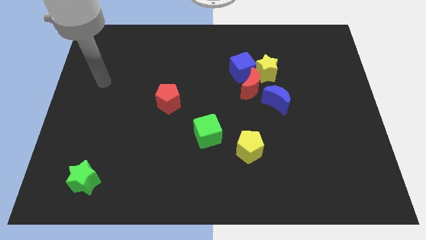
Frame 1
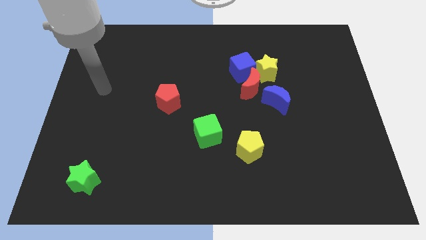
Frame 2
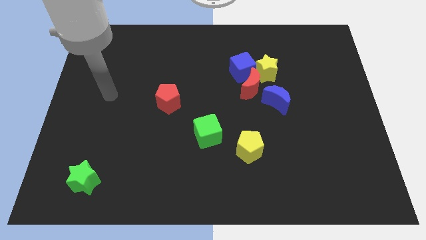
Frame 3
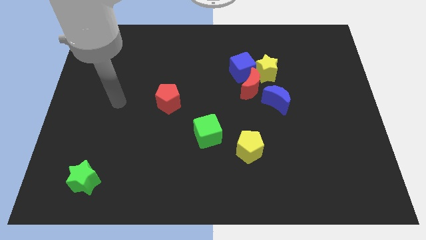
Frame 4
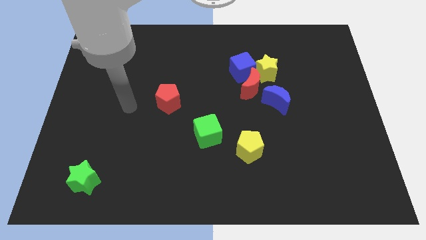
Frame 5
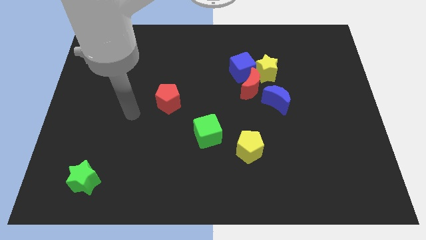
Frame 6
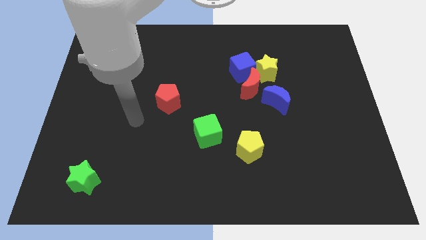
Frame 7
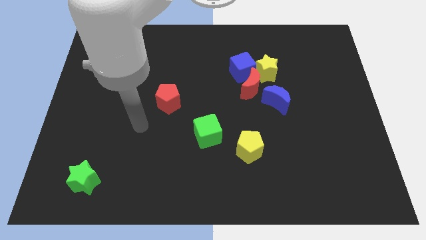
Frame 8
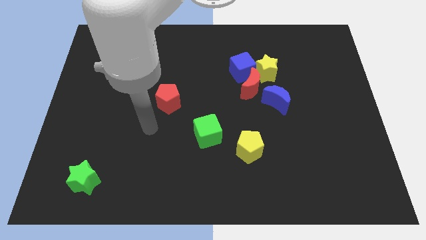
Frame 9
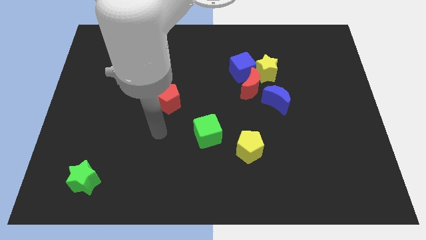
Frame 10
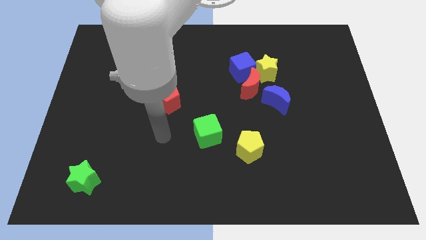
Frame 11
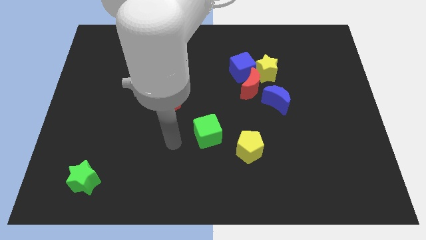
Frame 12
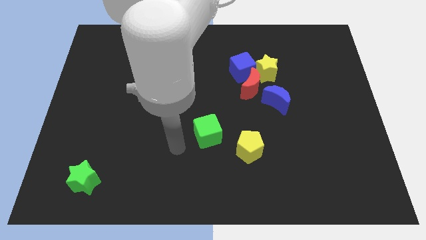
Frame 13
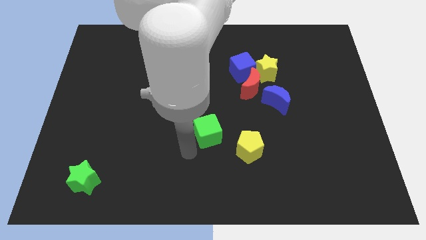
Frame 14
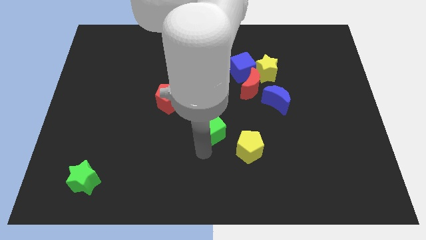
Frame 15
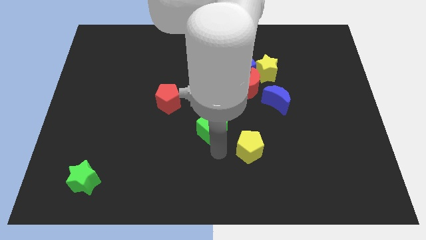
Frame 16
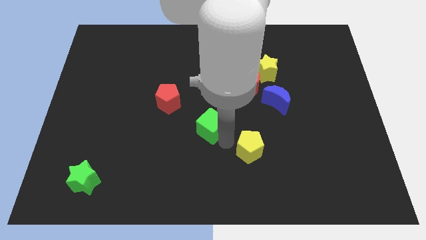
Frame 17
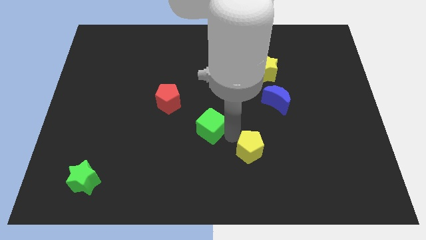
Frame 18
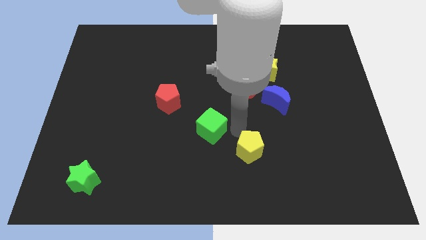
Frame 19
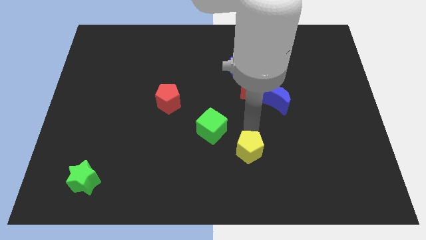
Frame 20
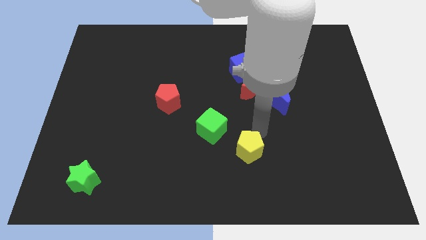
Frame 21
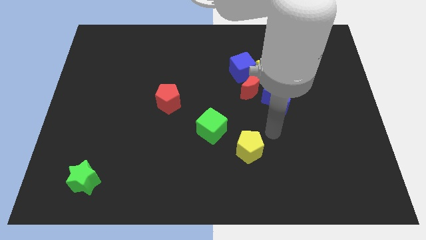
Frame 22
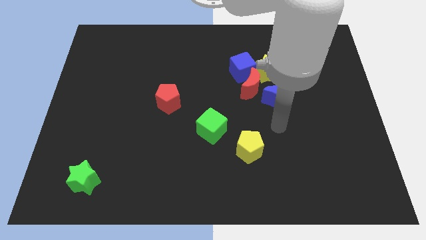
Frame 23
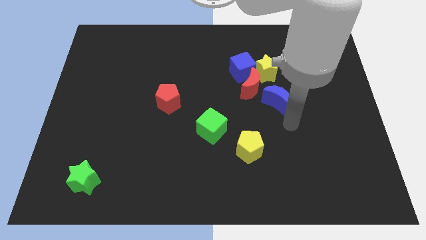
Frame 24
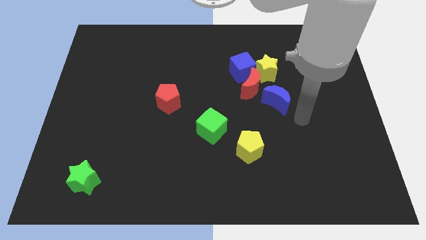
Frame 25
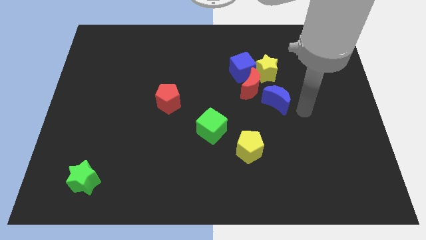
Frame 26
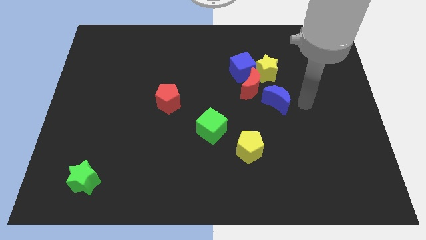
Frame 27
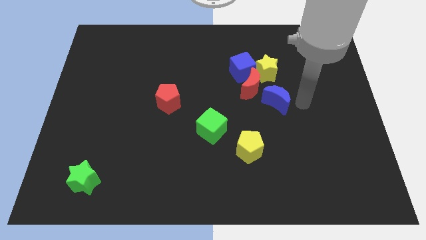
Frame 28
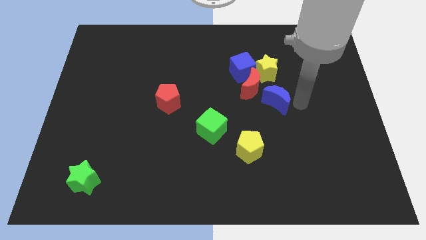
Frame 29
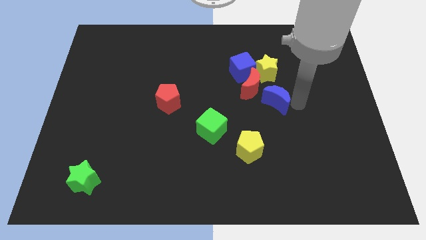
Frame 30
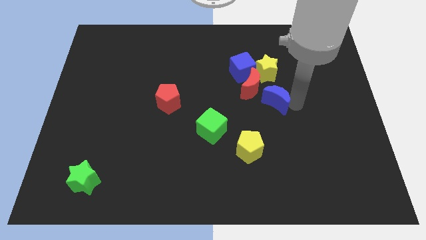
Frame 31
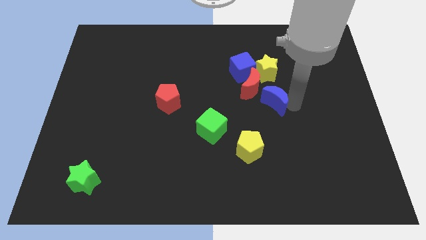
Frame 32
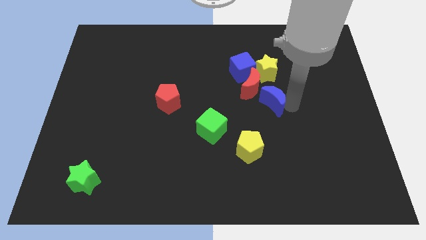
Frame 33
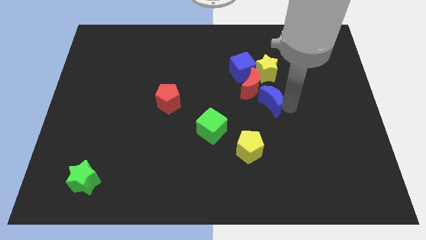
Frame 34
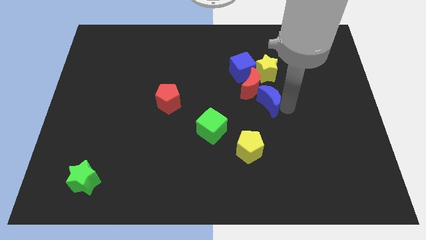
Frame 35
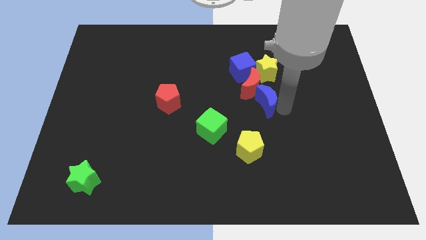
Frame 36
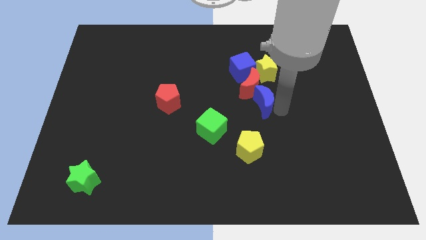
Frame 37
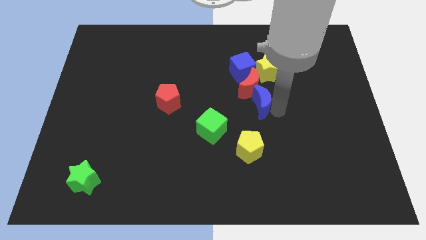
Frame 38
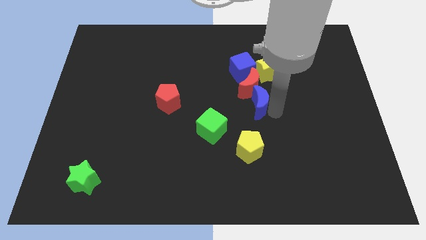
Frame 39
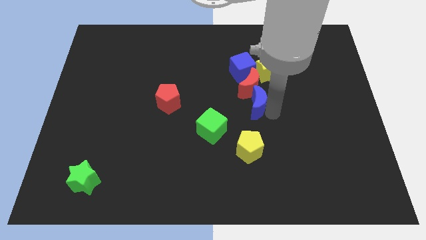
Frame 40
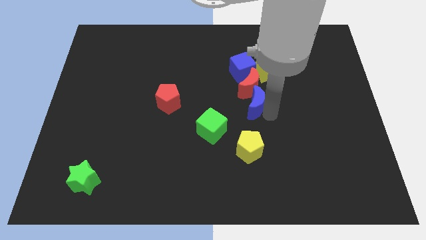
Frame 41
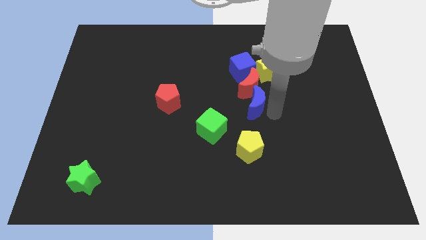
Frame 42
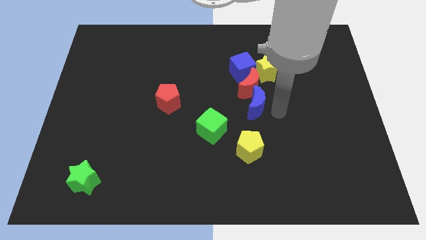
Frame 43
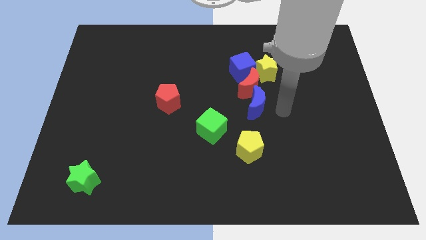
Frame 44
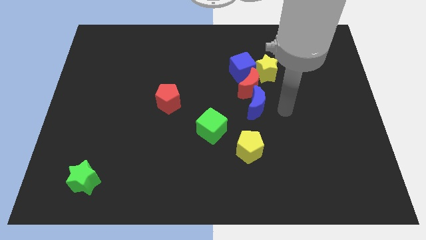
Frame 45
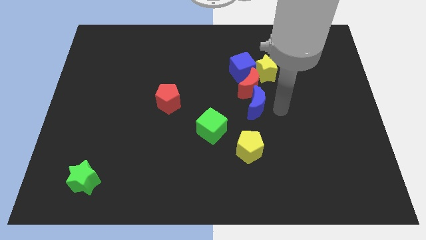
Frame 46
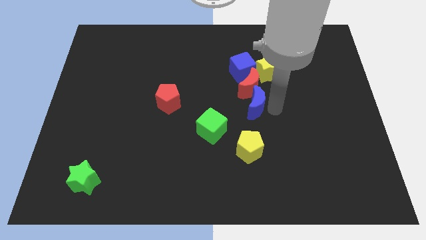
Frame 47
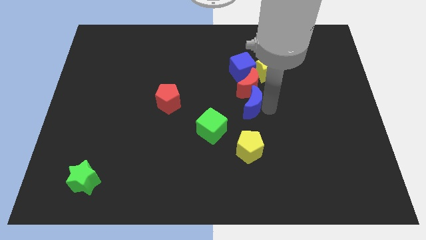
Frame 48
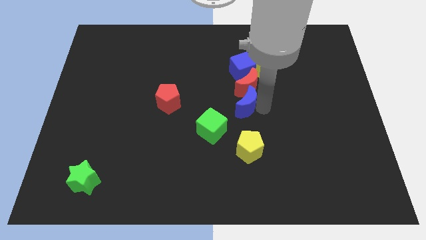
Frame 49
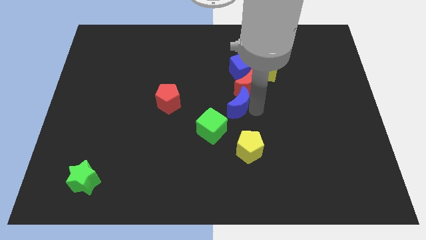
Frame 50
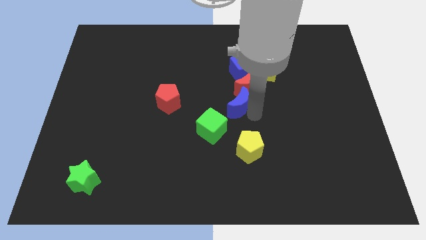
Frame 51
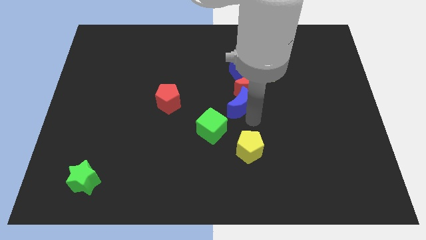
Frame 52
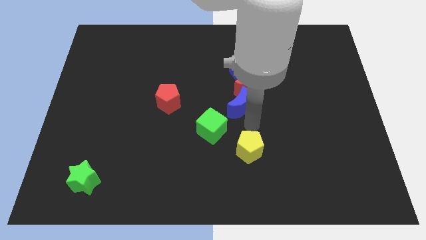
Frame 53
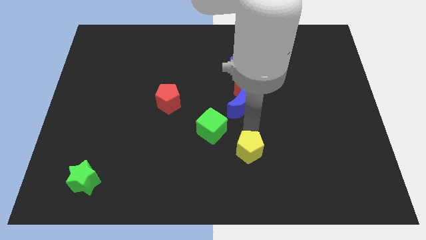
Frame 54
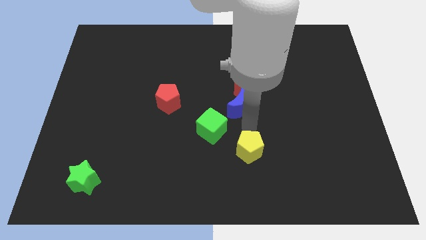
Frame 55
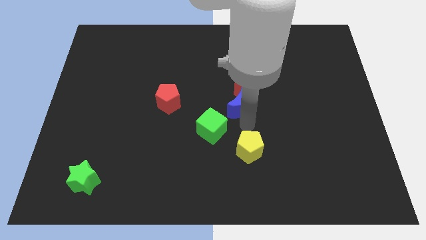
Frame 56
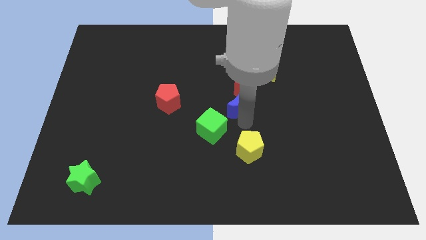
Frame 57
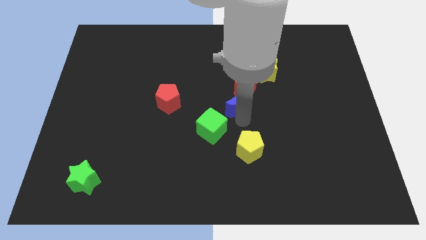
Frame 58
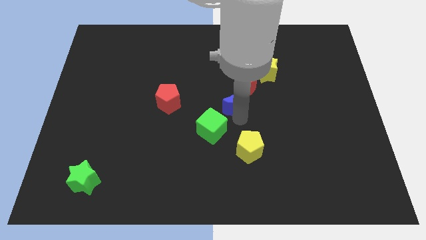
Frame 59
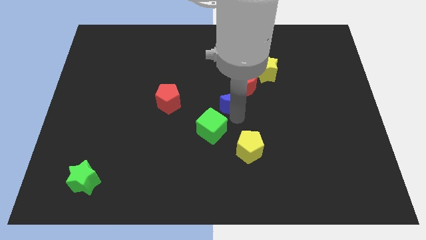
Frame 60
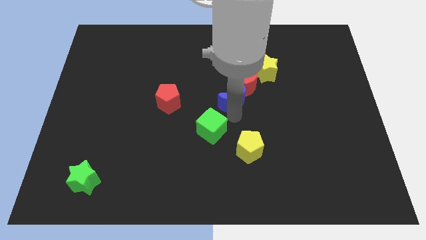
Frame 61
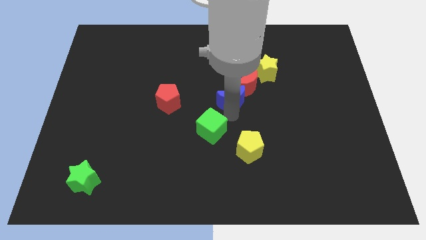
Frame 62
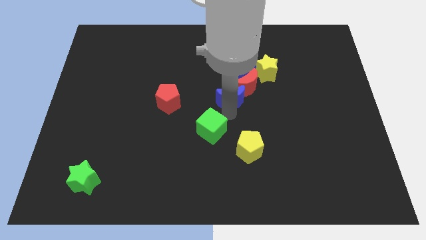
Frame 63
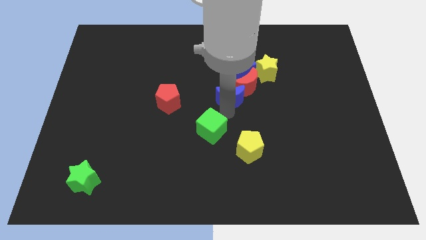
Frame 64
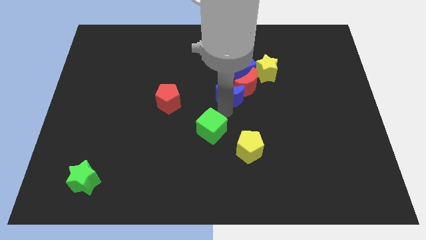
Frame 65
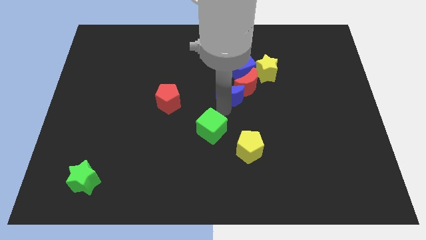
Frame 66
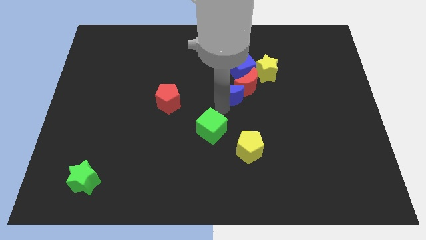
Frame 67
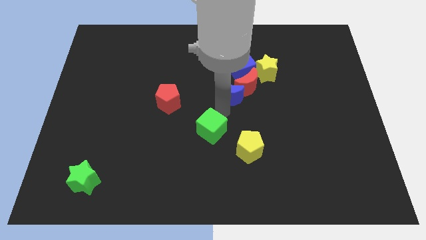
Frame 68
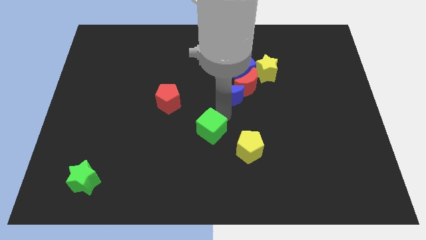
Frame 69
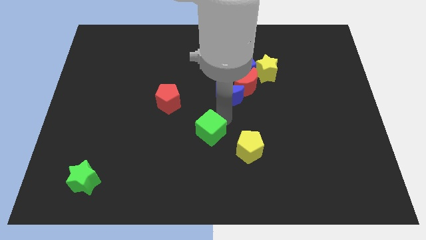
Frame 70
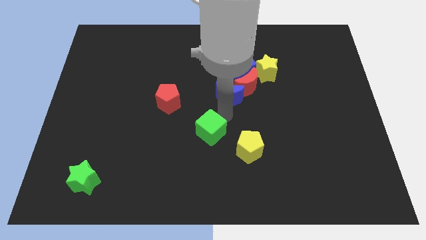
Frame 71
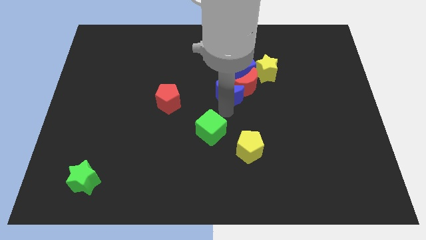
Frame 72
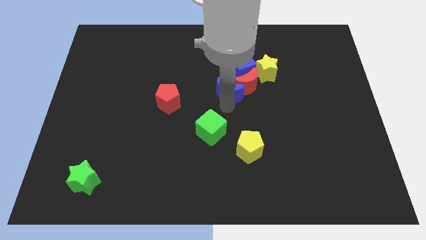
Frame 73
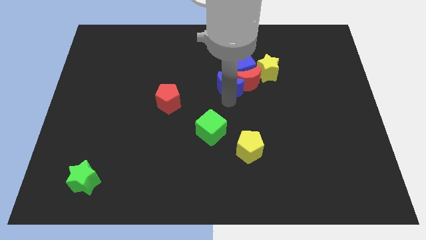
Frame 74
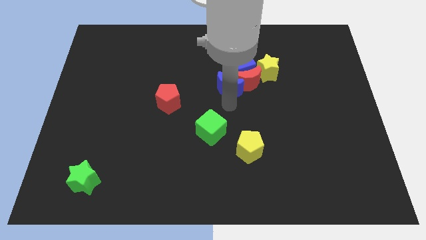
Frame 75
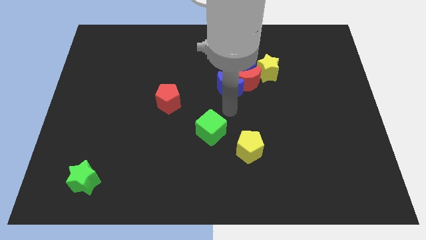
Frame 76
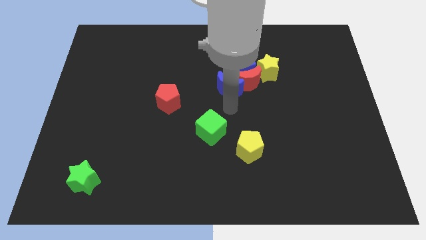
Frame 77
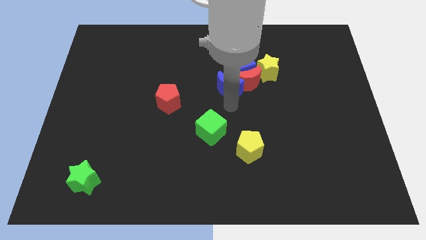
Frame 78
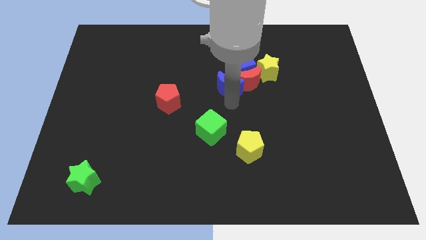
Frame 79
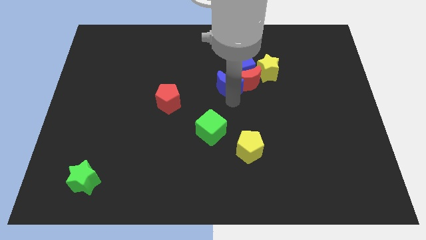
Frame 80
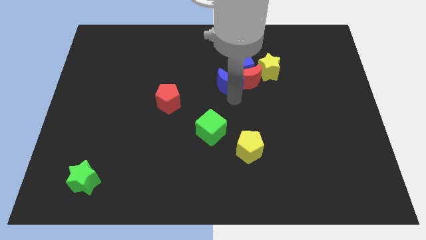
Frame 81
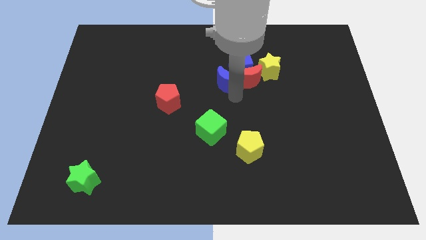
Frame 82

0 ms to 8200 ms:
put the blue moon to the left of the yellow star
